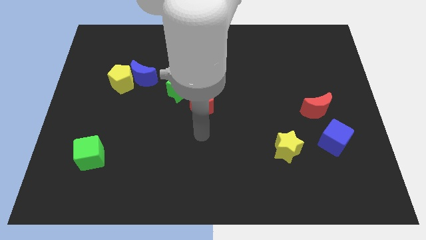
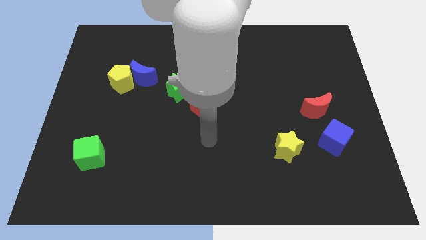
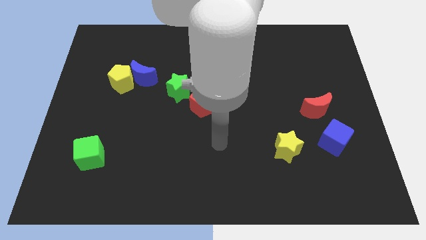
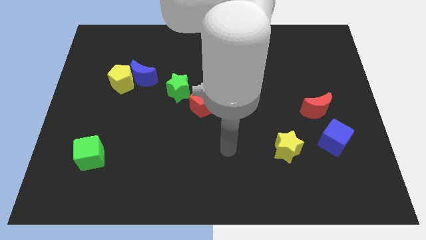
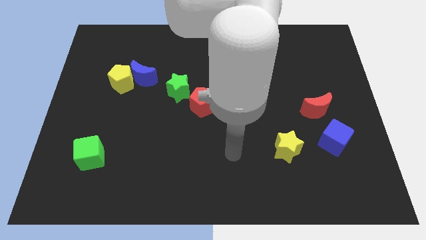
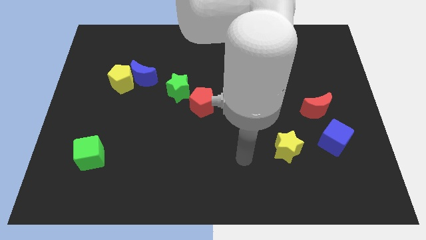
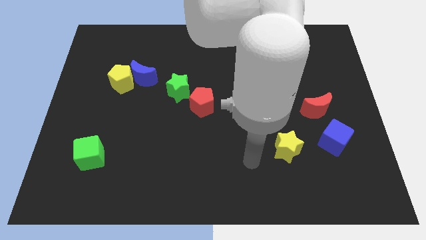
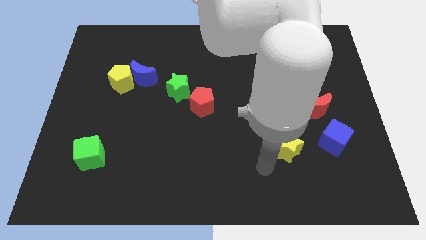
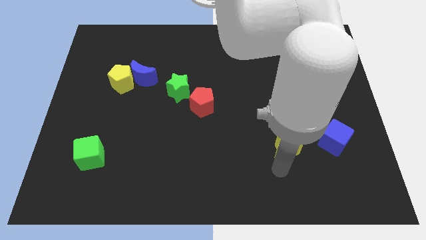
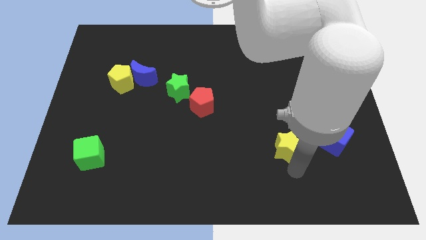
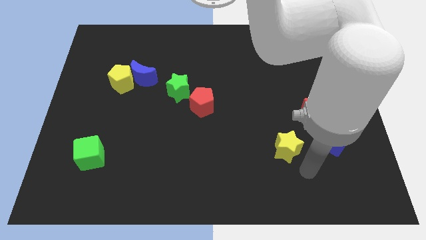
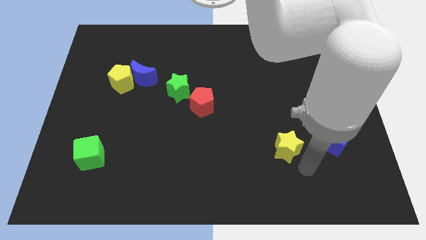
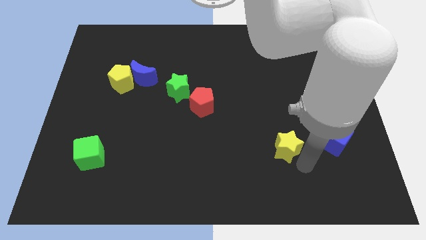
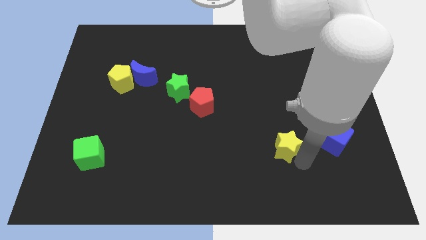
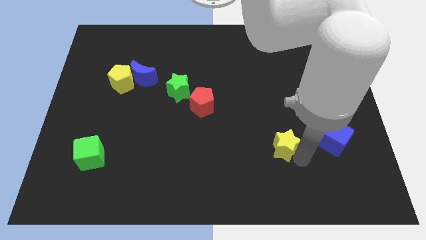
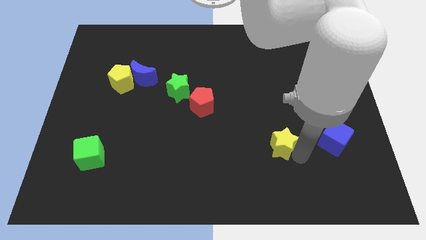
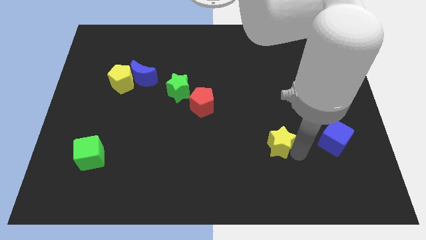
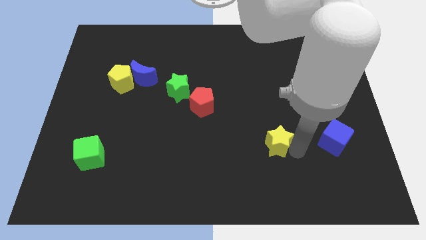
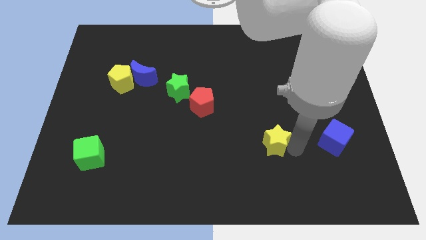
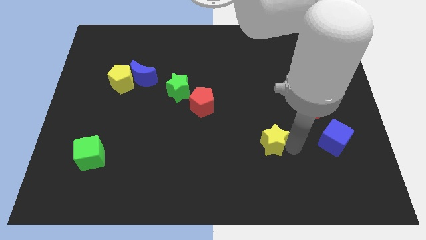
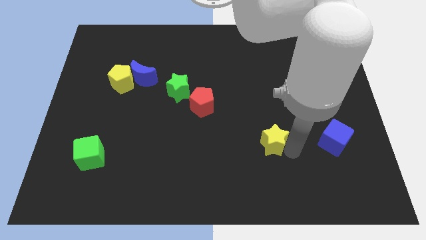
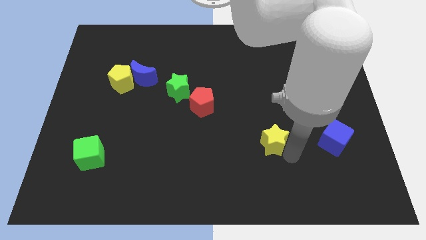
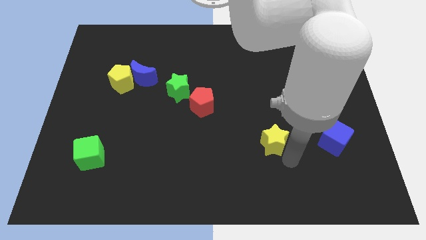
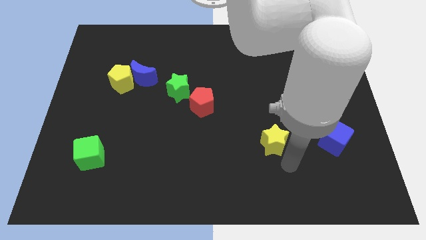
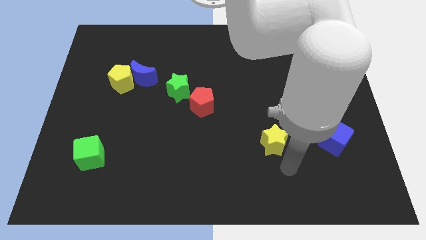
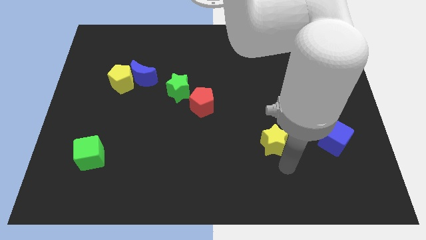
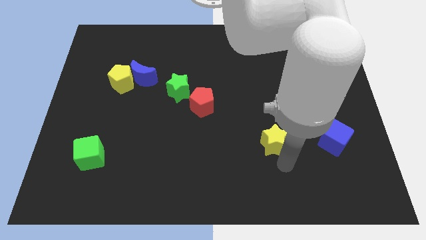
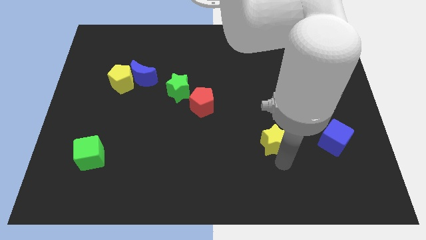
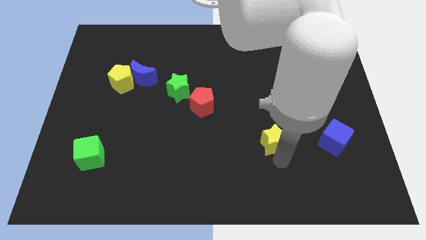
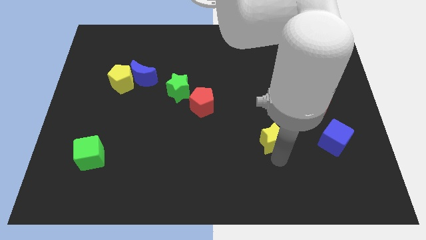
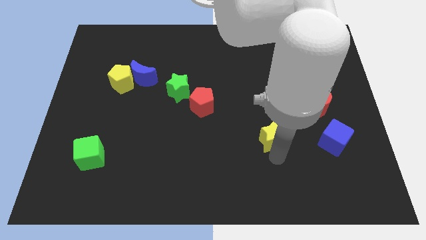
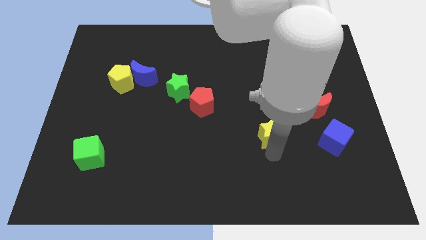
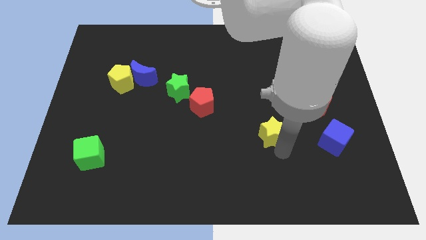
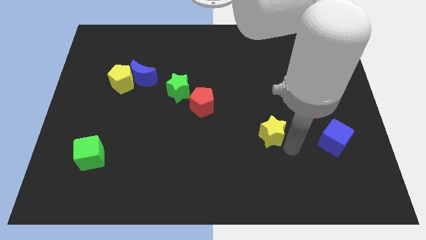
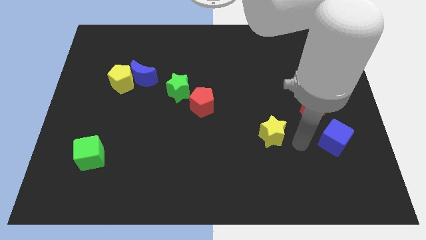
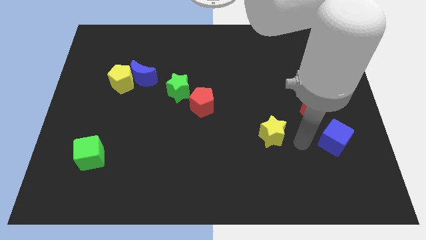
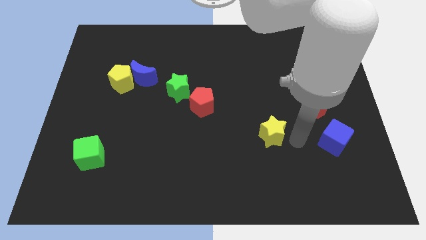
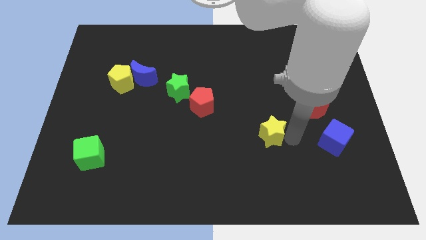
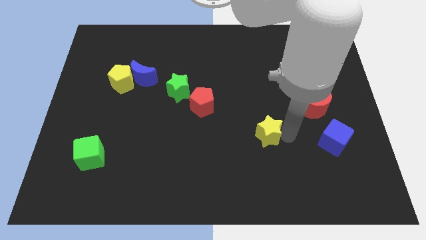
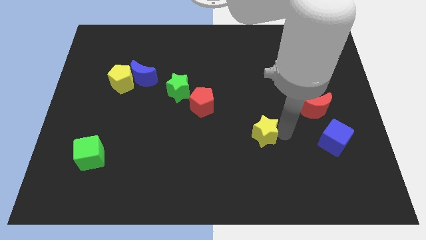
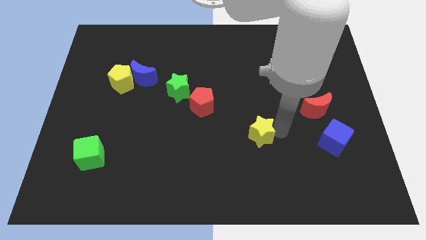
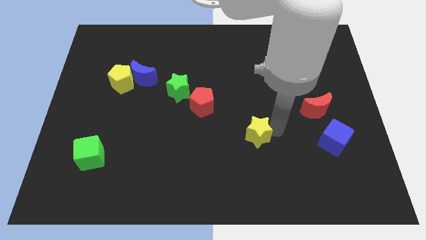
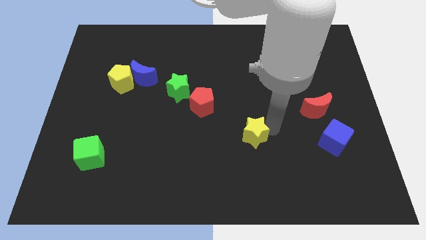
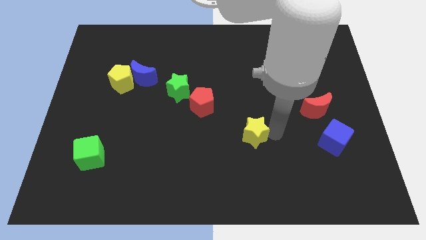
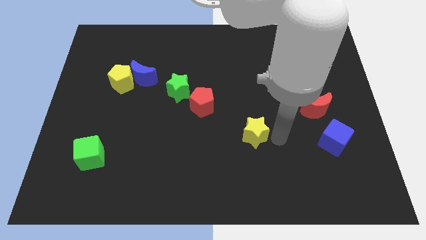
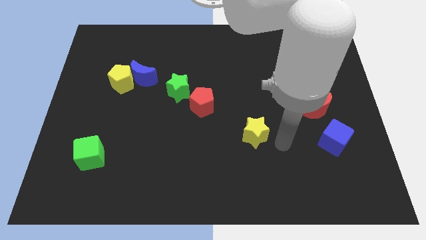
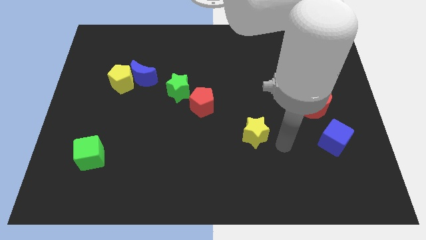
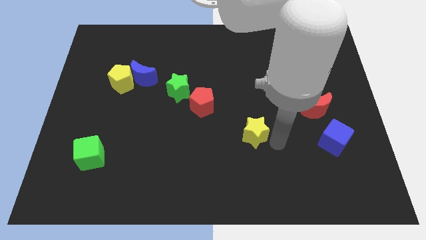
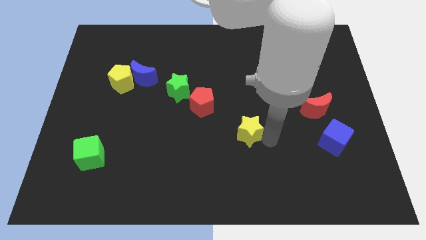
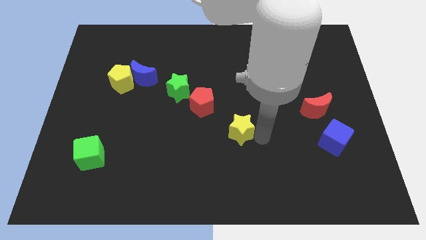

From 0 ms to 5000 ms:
slide the yellow star to the bottom right of the red pentagon

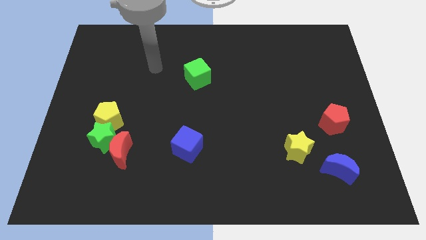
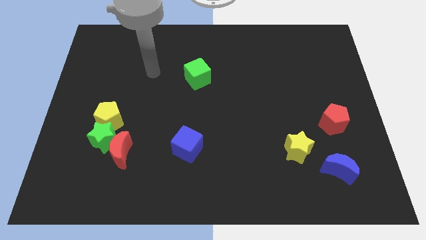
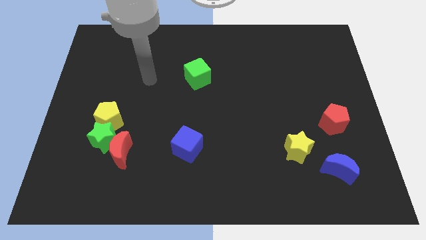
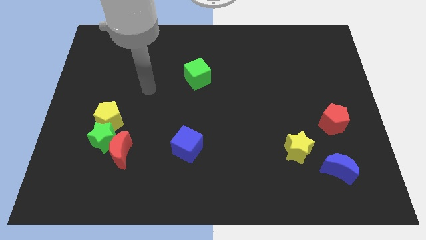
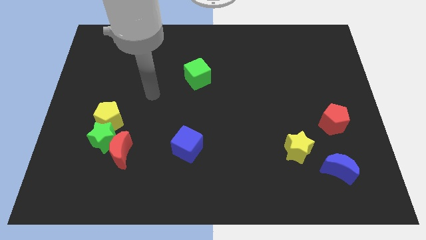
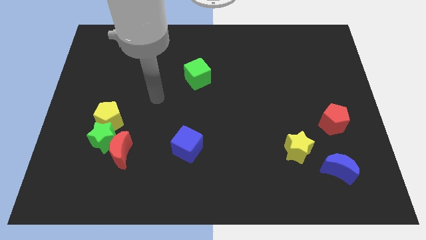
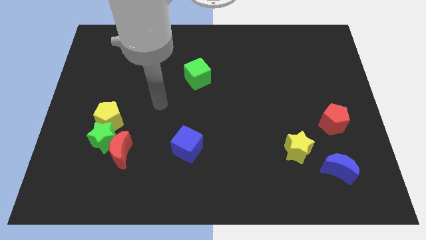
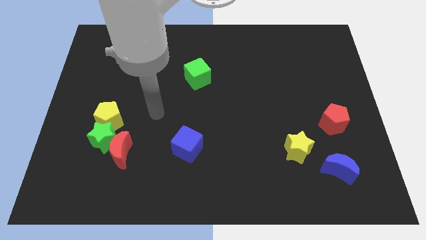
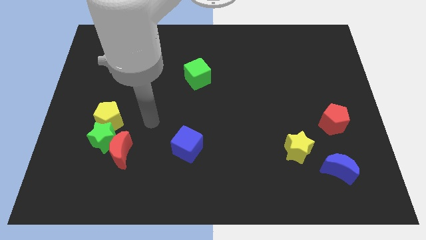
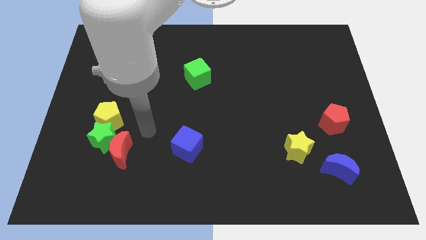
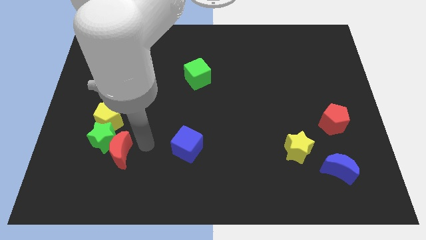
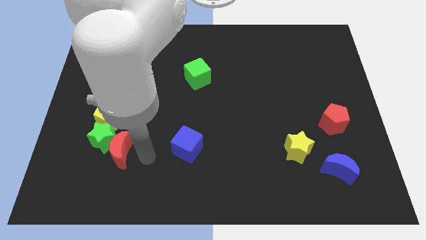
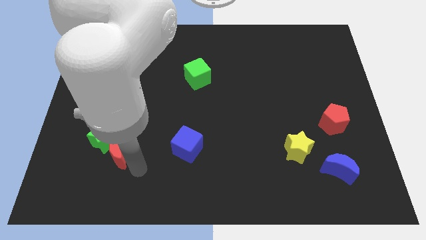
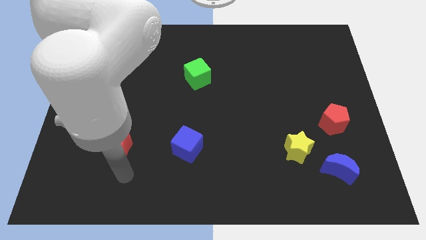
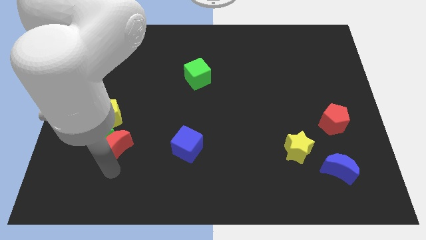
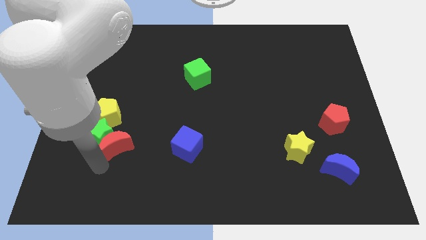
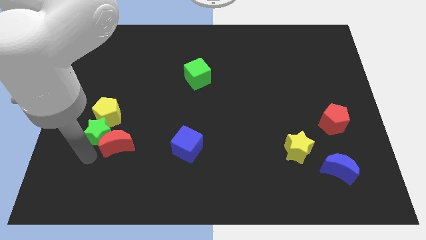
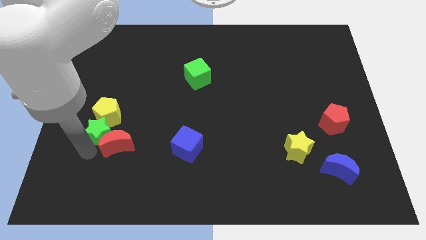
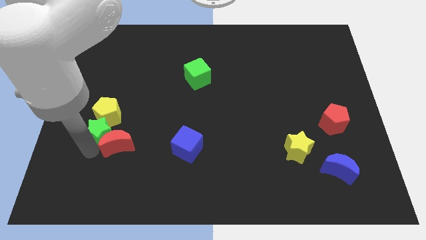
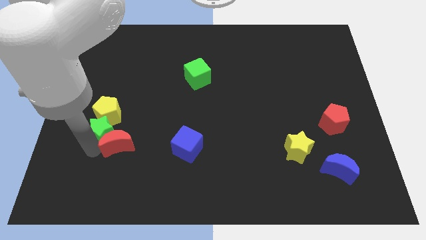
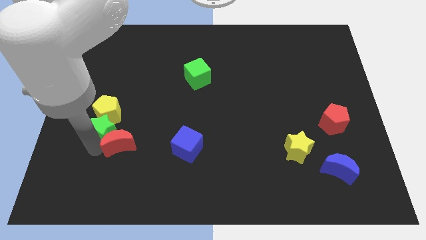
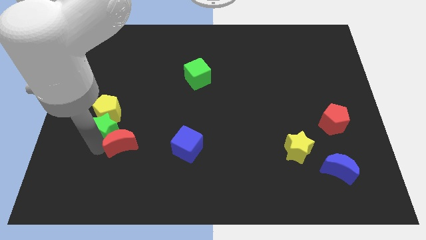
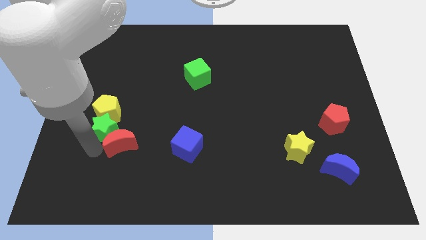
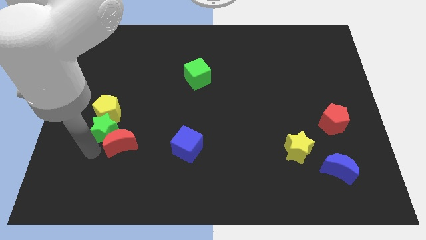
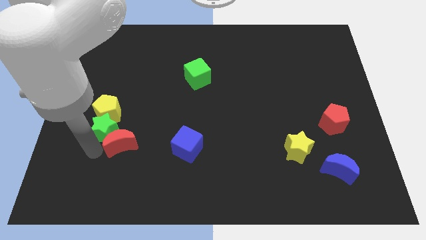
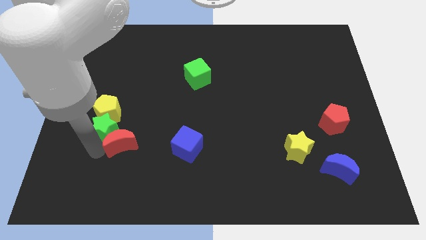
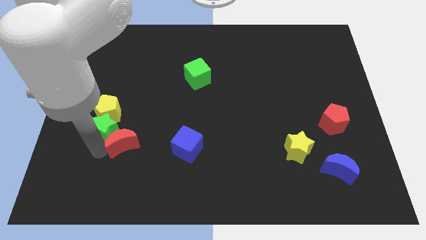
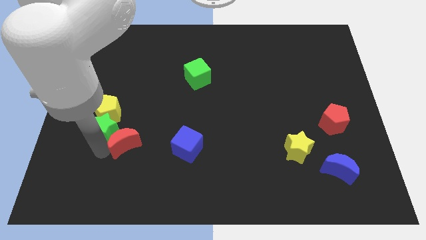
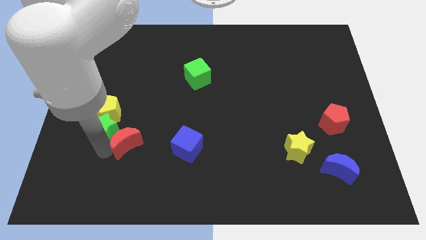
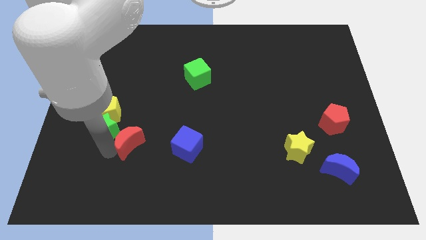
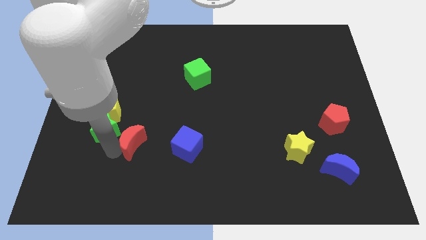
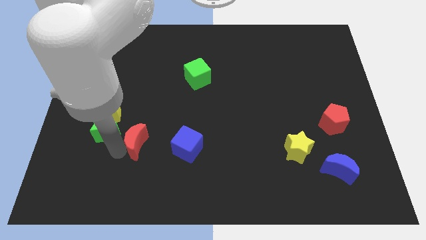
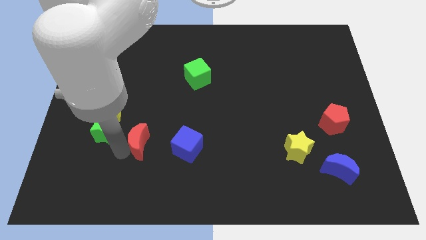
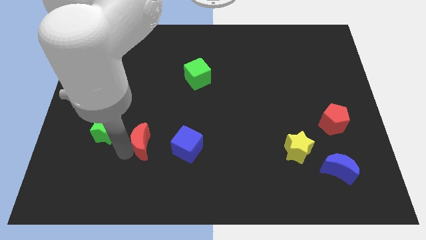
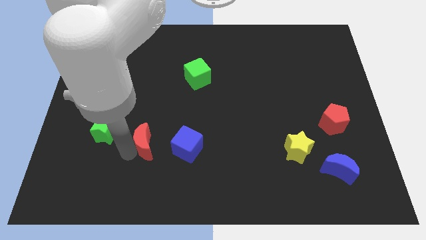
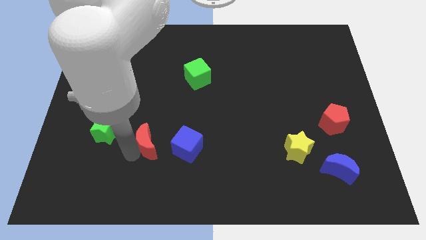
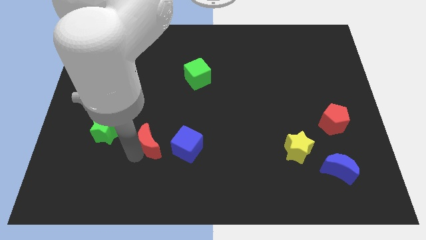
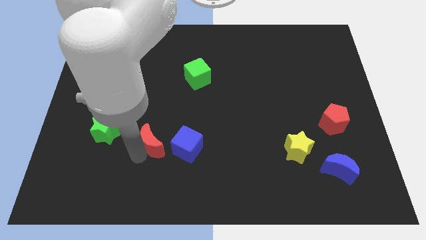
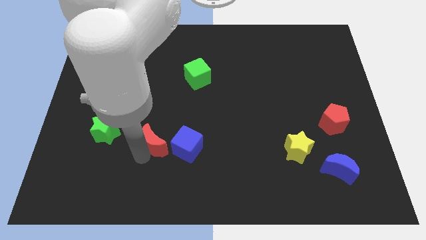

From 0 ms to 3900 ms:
move the red moon to the top left of the blue cube
